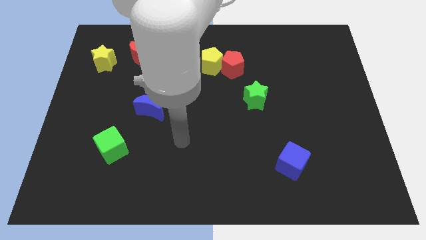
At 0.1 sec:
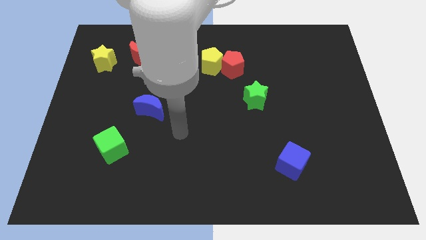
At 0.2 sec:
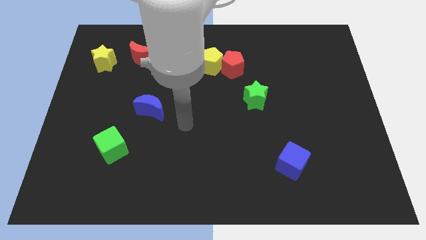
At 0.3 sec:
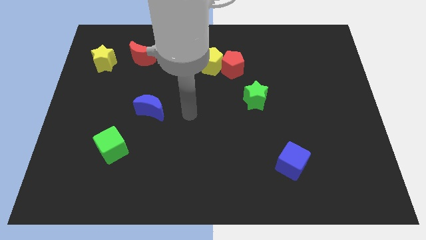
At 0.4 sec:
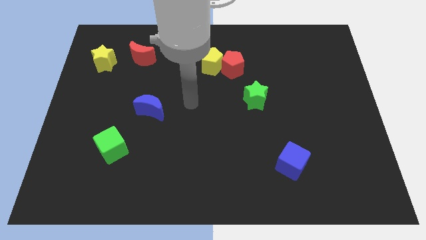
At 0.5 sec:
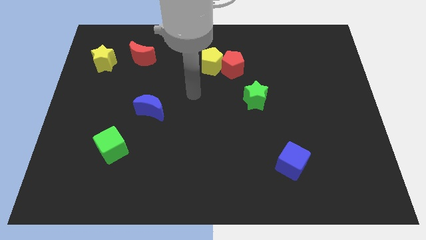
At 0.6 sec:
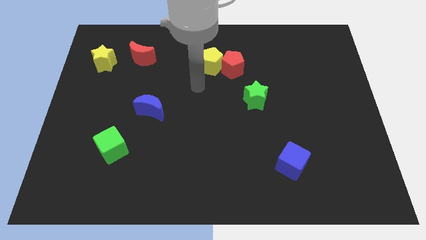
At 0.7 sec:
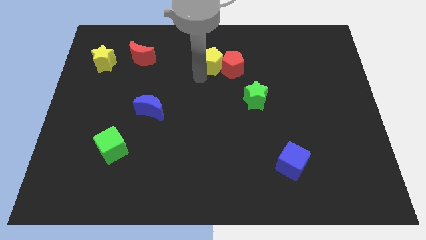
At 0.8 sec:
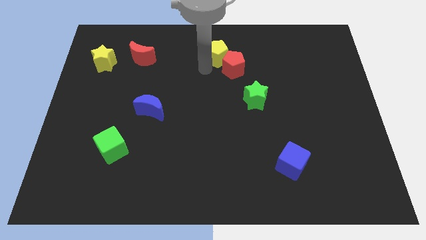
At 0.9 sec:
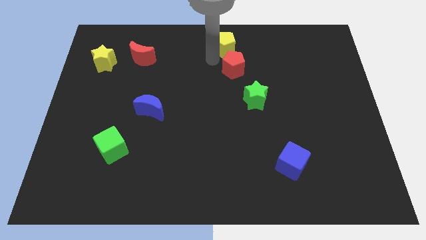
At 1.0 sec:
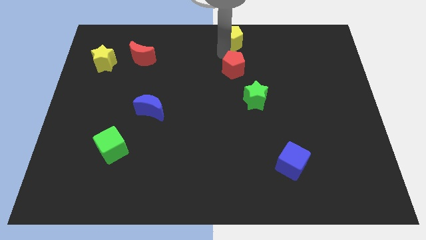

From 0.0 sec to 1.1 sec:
move the red pentagon away from the yellow pentagon

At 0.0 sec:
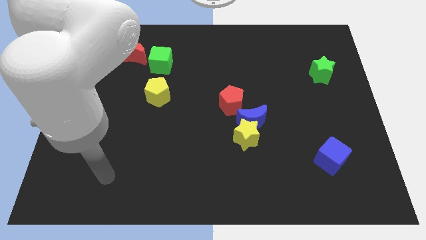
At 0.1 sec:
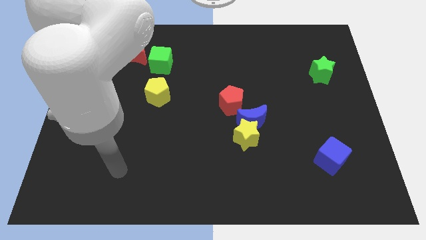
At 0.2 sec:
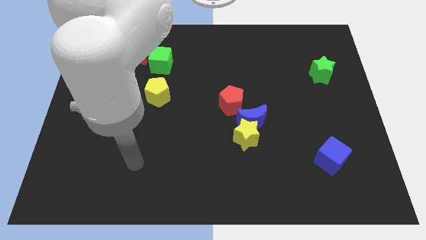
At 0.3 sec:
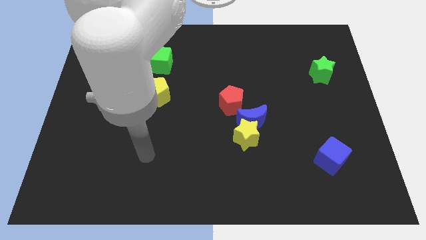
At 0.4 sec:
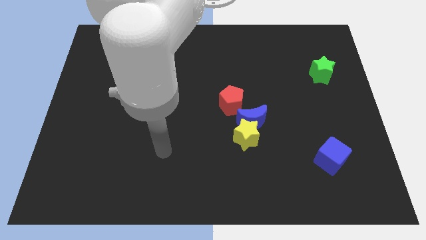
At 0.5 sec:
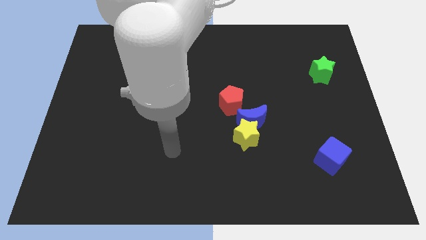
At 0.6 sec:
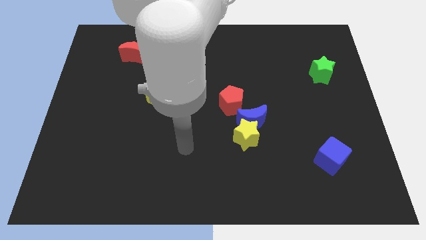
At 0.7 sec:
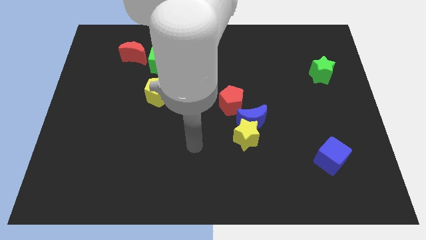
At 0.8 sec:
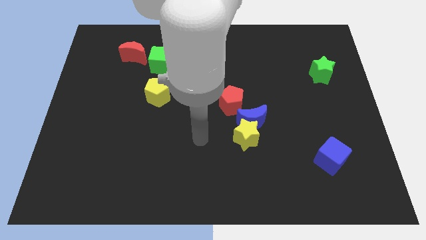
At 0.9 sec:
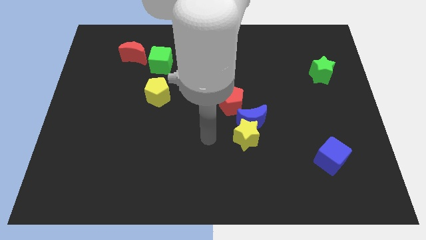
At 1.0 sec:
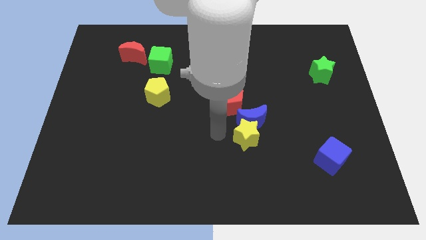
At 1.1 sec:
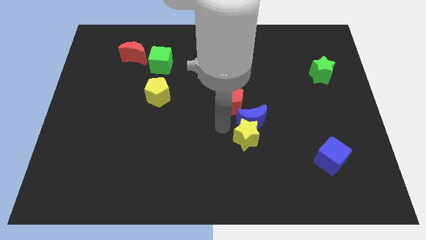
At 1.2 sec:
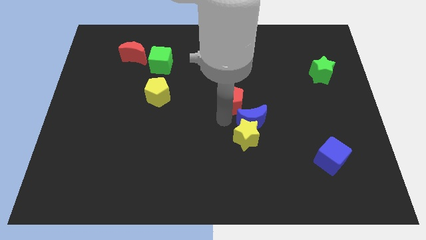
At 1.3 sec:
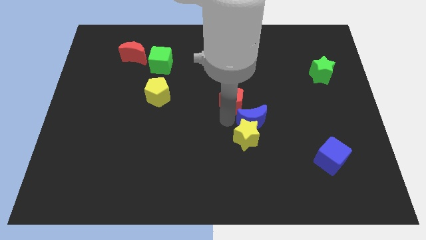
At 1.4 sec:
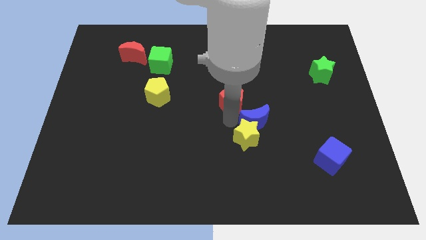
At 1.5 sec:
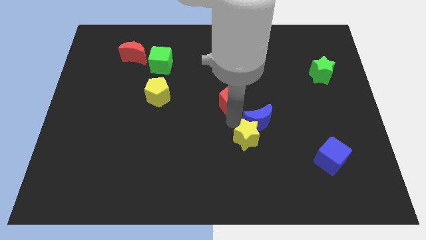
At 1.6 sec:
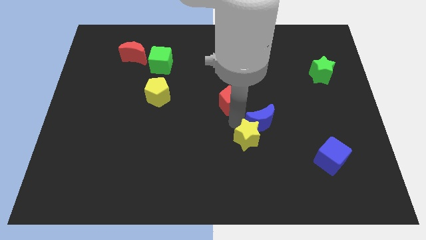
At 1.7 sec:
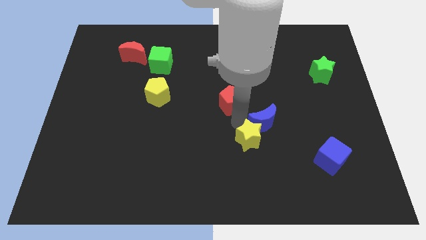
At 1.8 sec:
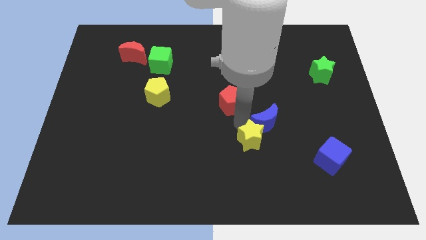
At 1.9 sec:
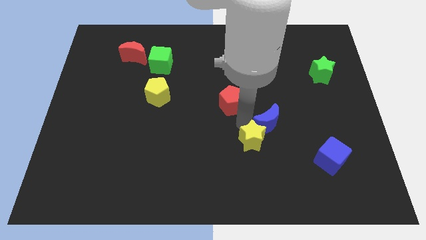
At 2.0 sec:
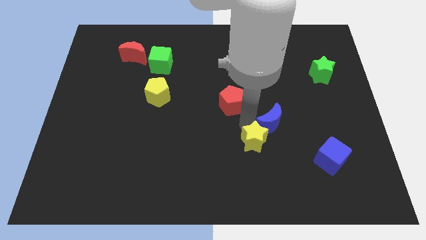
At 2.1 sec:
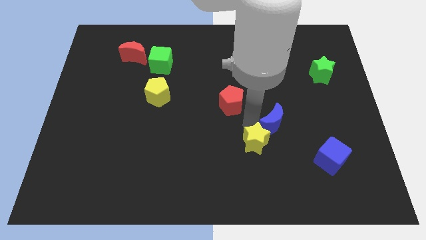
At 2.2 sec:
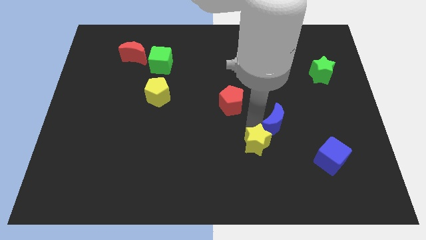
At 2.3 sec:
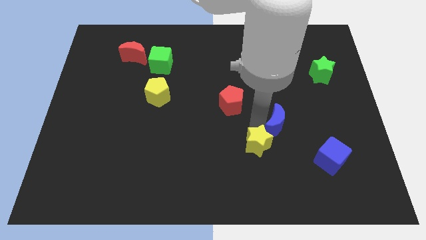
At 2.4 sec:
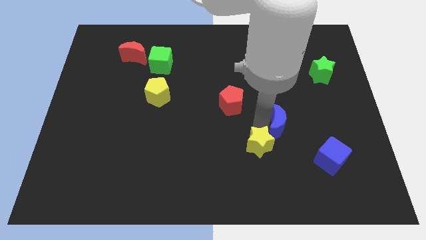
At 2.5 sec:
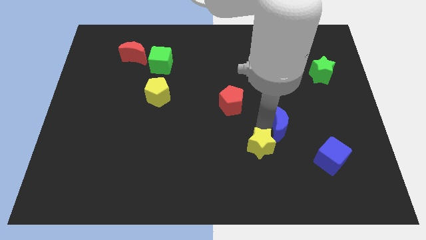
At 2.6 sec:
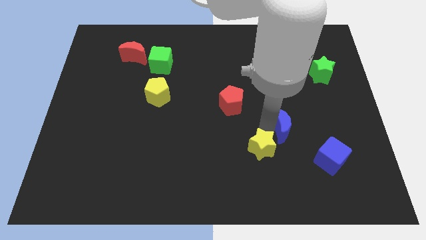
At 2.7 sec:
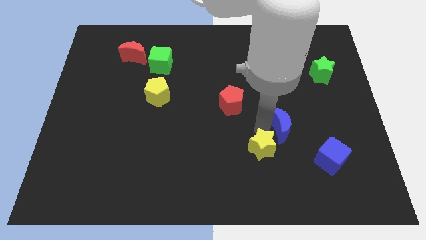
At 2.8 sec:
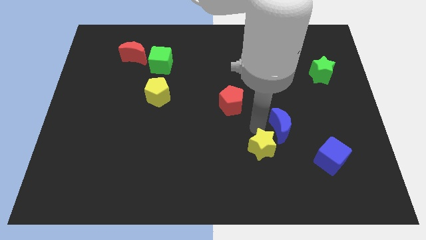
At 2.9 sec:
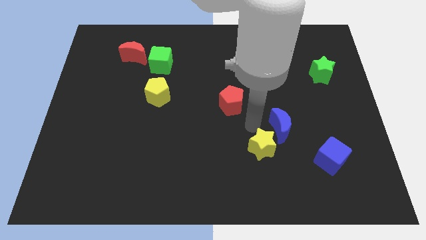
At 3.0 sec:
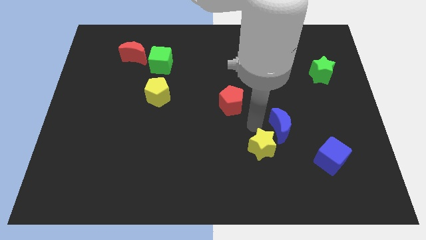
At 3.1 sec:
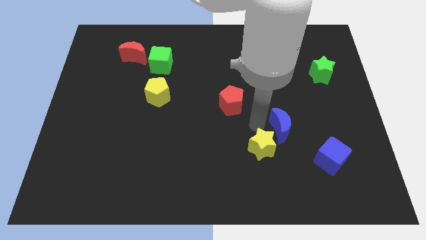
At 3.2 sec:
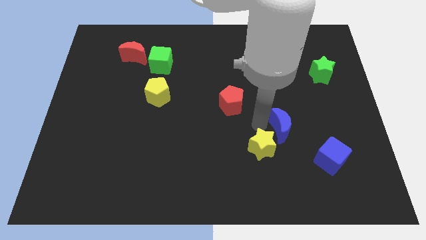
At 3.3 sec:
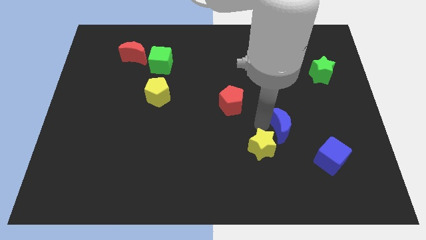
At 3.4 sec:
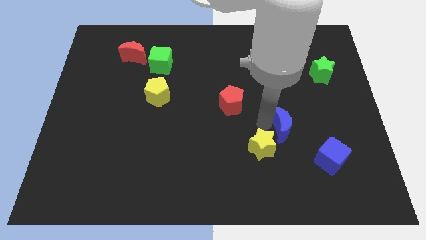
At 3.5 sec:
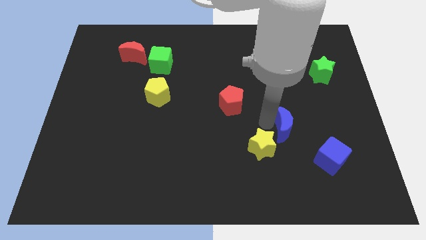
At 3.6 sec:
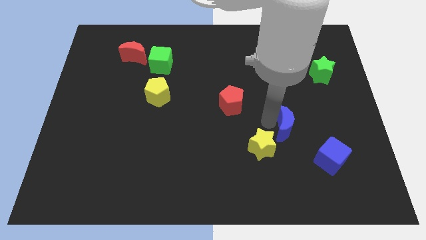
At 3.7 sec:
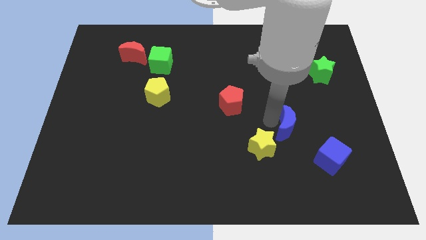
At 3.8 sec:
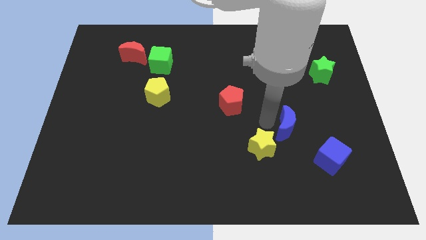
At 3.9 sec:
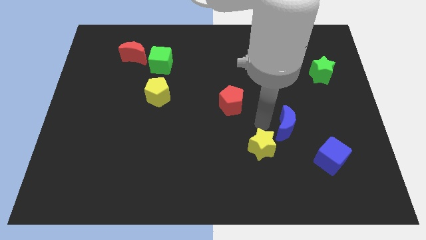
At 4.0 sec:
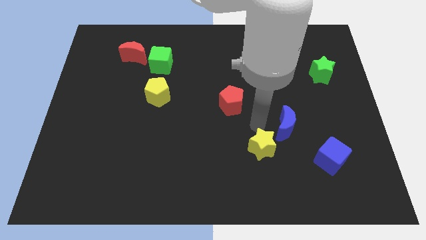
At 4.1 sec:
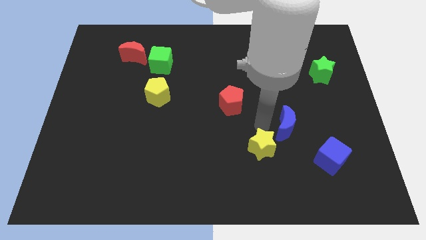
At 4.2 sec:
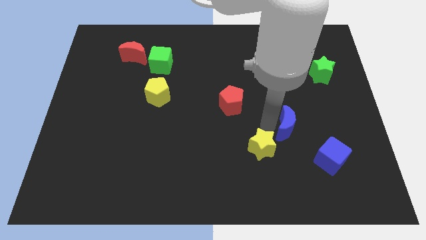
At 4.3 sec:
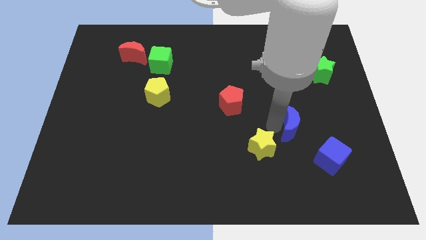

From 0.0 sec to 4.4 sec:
pull the blue moon apart from the yellow star and red pentagon

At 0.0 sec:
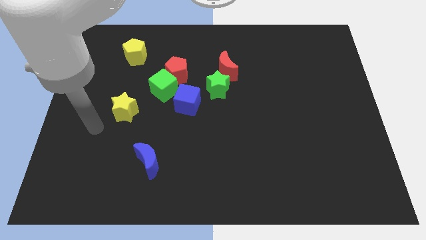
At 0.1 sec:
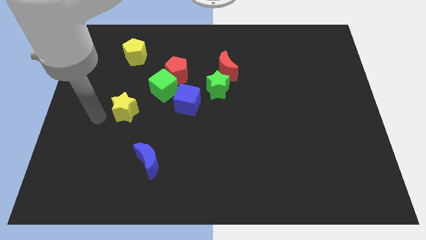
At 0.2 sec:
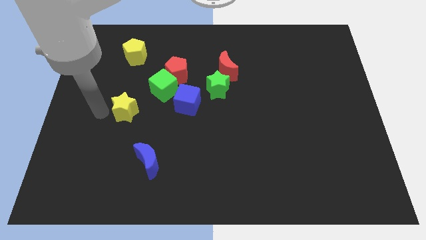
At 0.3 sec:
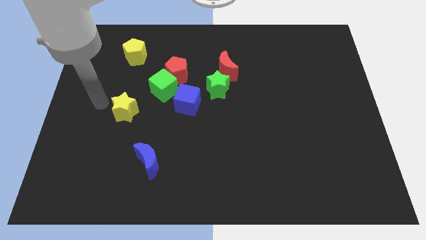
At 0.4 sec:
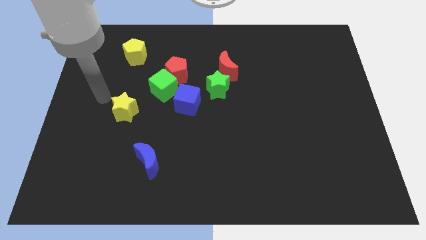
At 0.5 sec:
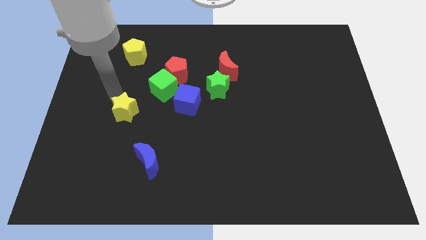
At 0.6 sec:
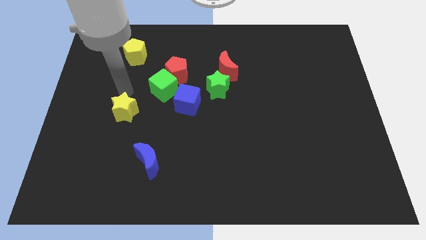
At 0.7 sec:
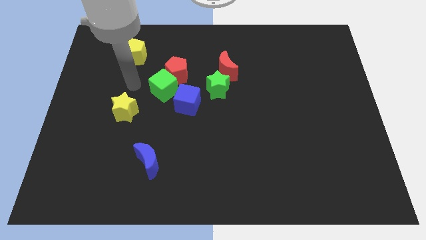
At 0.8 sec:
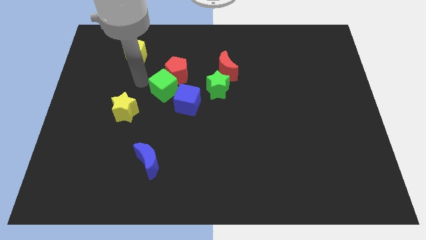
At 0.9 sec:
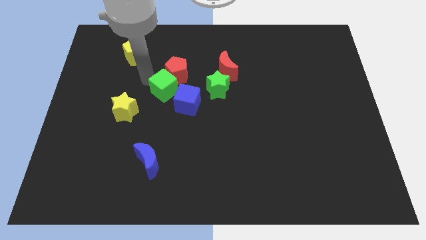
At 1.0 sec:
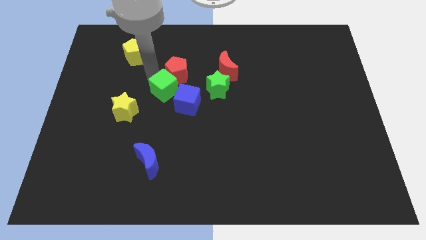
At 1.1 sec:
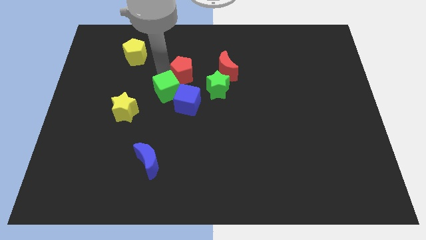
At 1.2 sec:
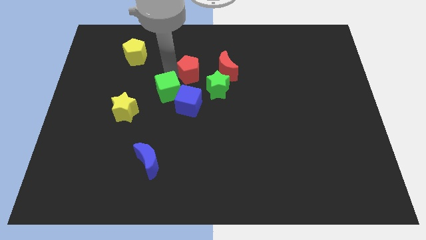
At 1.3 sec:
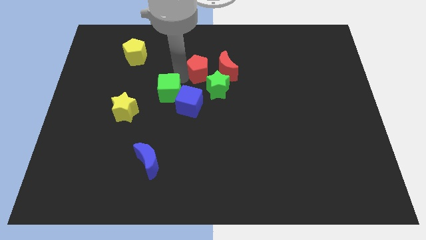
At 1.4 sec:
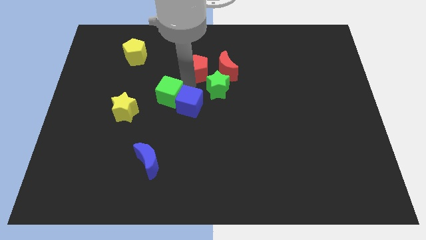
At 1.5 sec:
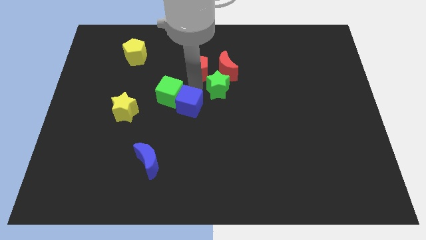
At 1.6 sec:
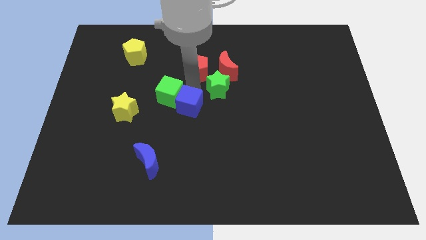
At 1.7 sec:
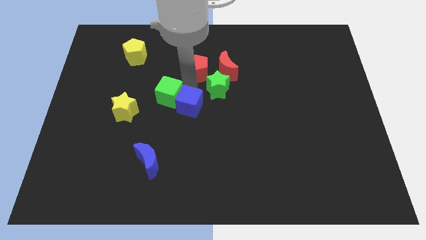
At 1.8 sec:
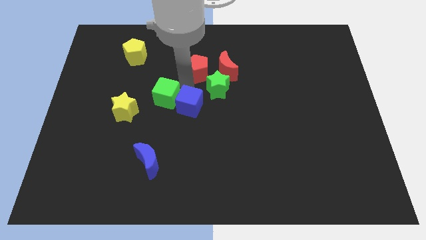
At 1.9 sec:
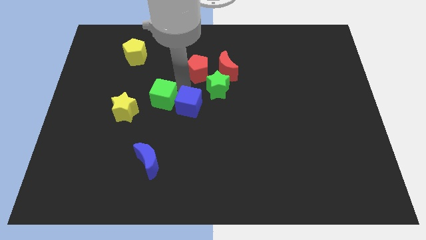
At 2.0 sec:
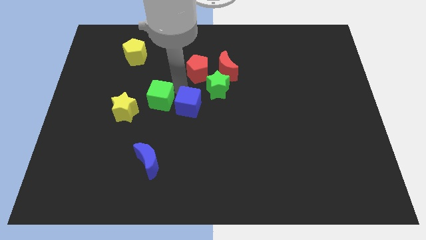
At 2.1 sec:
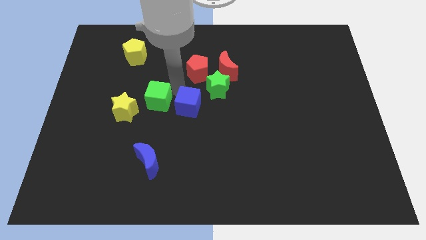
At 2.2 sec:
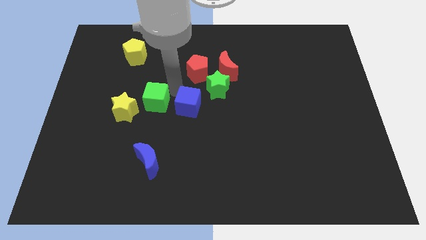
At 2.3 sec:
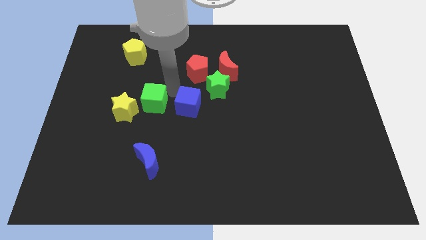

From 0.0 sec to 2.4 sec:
pull the green cube apart from the red pentagon and blue cube

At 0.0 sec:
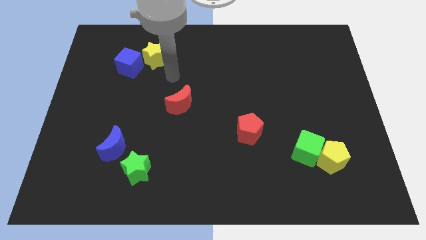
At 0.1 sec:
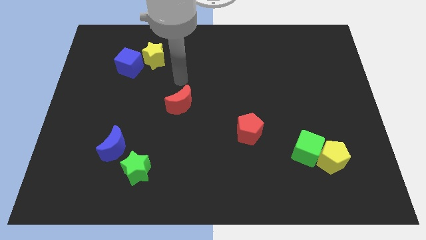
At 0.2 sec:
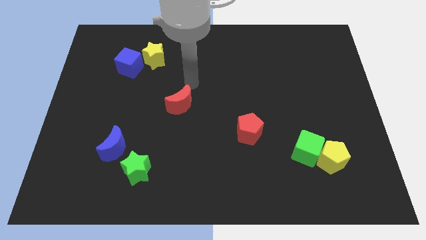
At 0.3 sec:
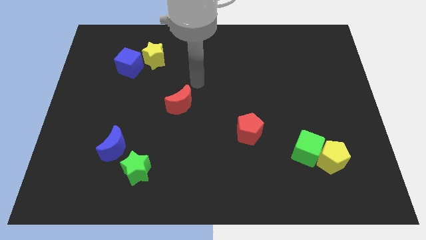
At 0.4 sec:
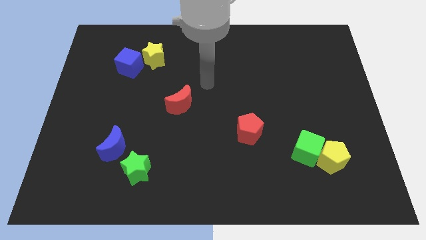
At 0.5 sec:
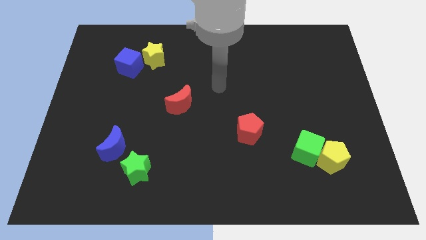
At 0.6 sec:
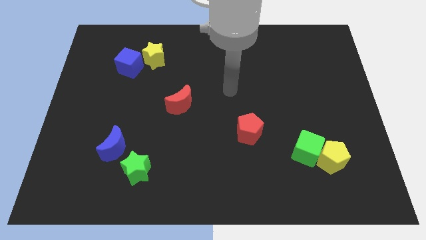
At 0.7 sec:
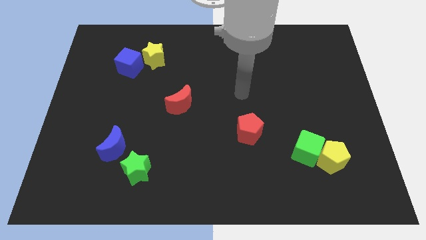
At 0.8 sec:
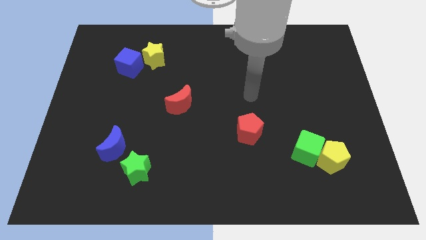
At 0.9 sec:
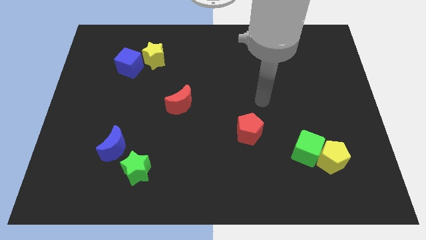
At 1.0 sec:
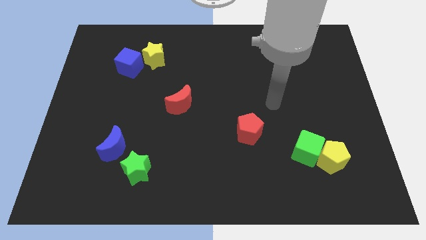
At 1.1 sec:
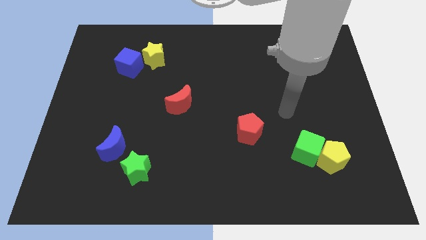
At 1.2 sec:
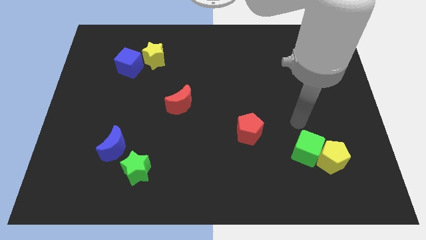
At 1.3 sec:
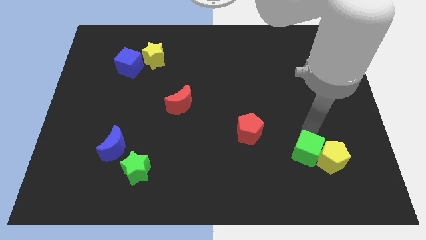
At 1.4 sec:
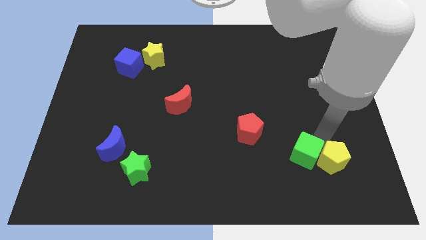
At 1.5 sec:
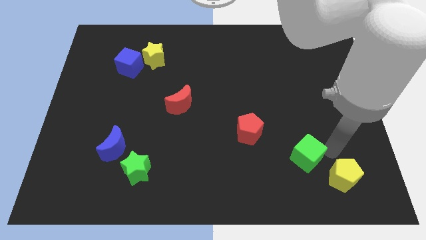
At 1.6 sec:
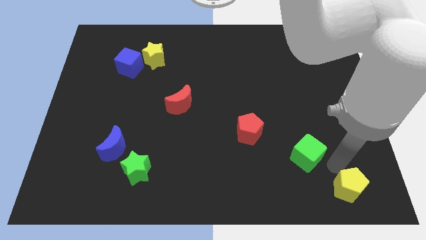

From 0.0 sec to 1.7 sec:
move the green cube away from the yellow pentagon
